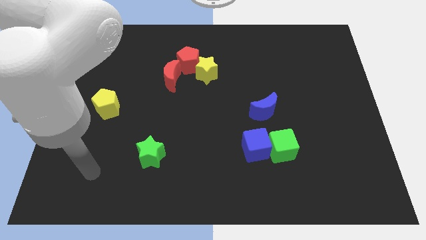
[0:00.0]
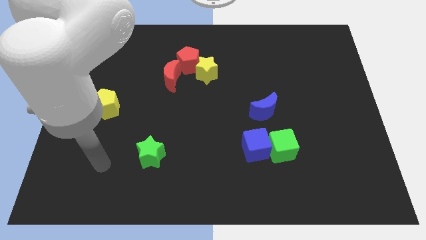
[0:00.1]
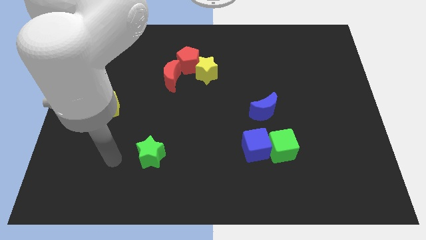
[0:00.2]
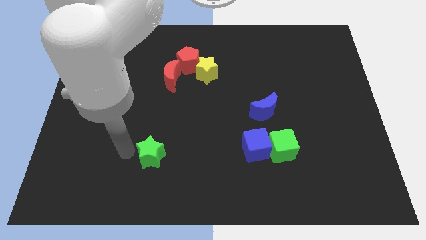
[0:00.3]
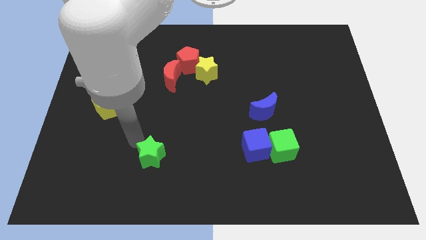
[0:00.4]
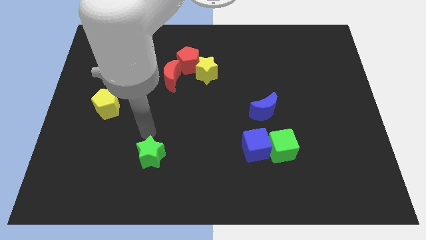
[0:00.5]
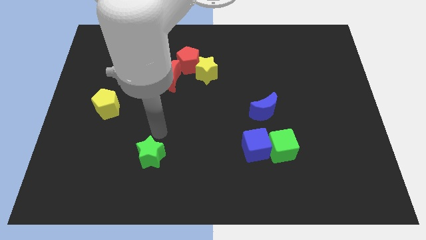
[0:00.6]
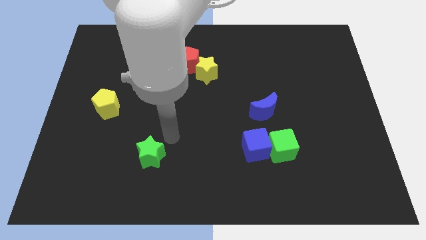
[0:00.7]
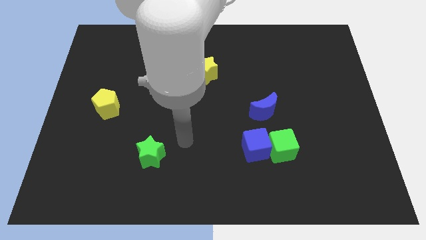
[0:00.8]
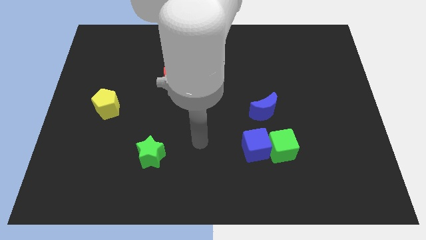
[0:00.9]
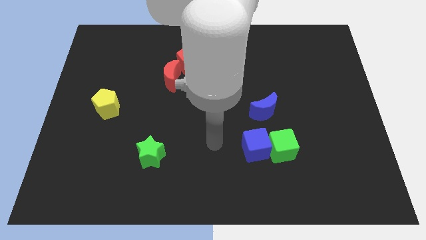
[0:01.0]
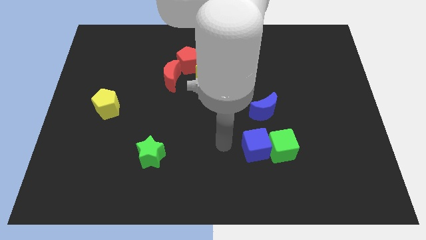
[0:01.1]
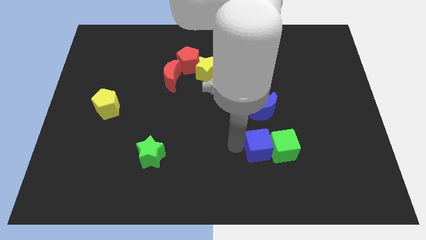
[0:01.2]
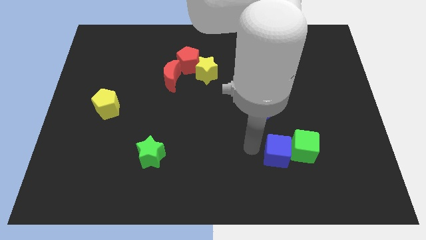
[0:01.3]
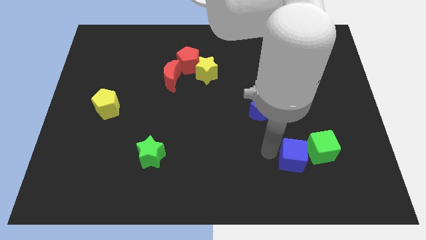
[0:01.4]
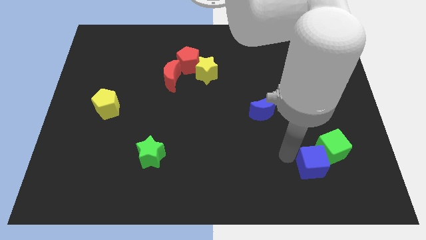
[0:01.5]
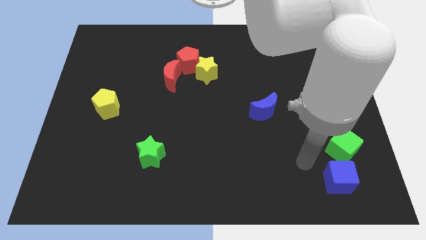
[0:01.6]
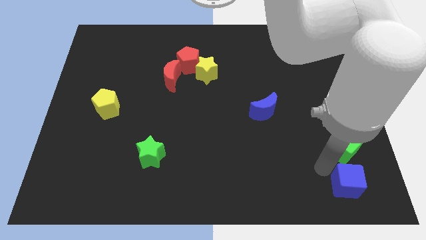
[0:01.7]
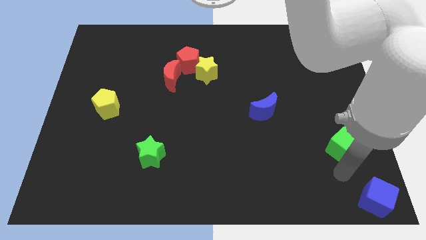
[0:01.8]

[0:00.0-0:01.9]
move the green cube away from the blue cube

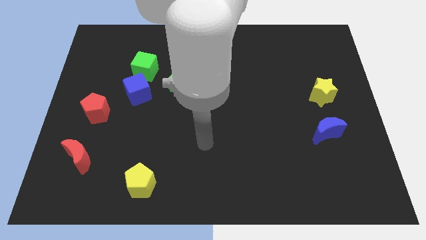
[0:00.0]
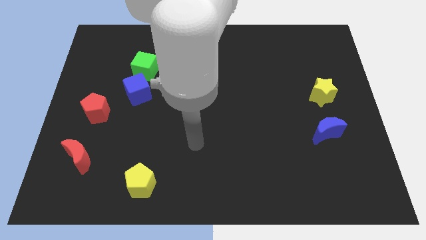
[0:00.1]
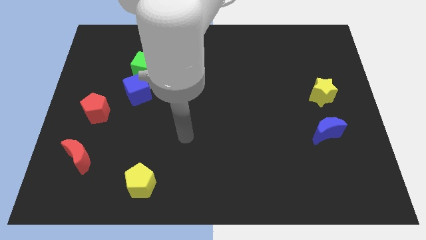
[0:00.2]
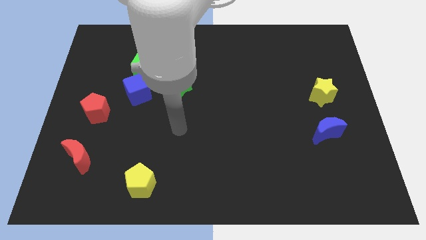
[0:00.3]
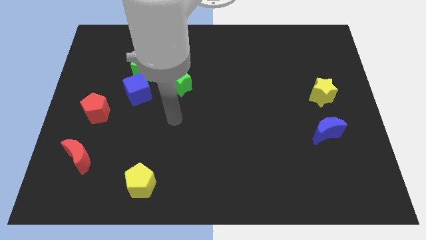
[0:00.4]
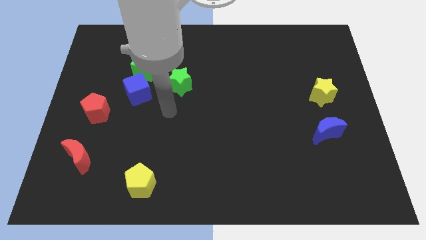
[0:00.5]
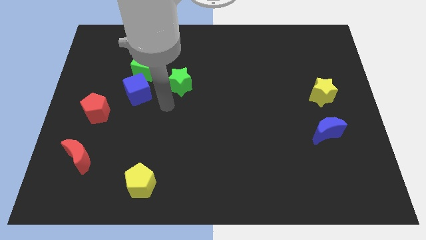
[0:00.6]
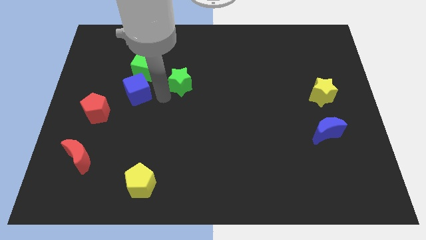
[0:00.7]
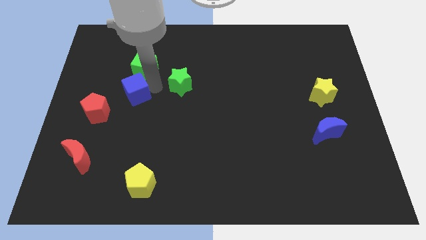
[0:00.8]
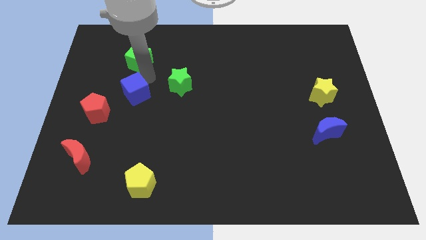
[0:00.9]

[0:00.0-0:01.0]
pull the blue cube apart from the green cube

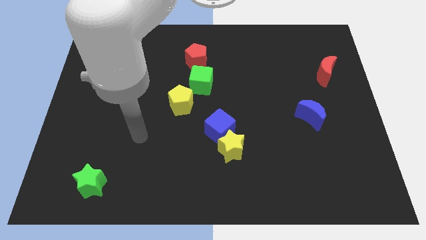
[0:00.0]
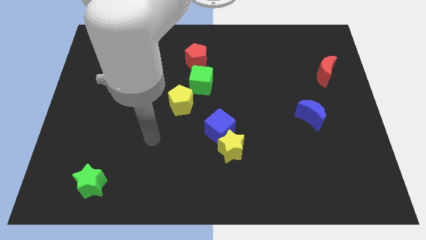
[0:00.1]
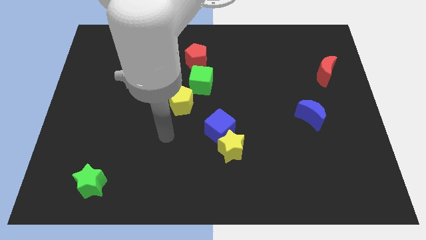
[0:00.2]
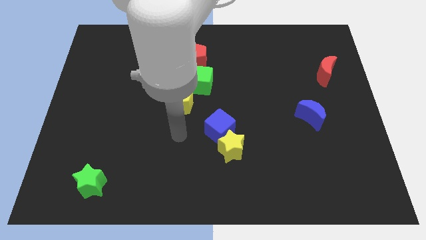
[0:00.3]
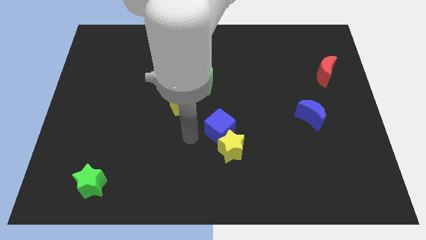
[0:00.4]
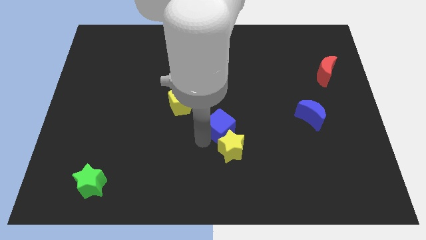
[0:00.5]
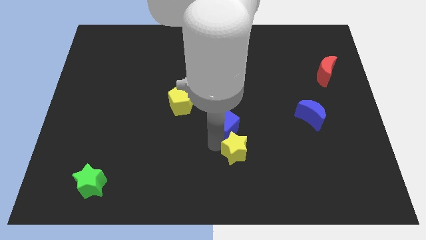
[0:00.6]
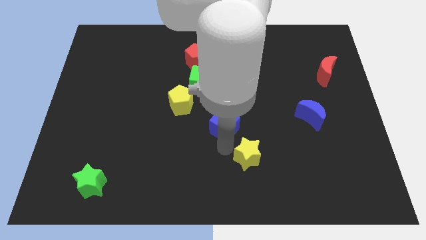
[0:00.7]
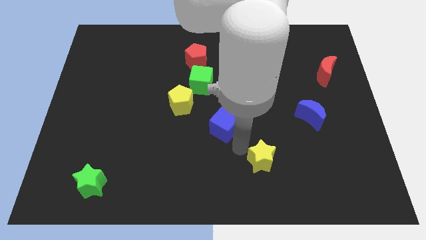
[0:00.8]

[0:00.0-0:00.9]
move the blue cube away from the yellow star

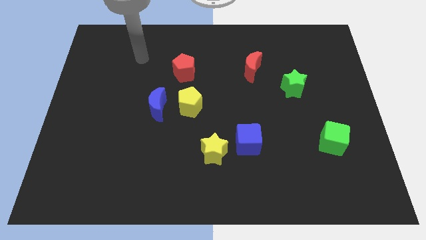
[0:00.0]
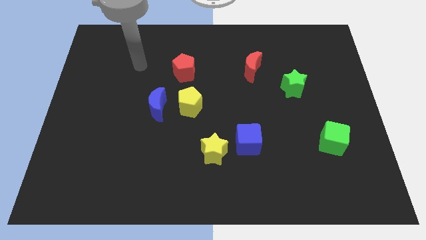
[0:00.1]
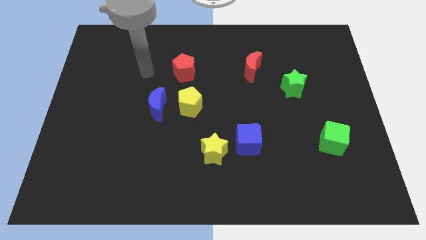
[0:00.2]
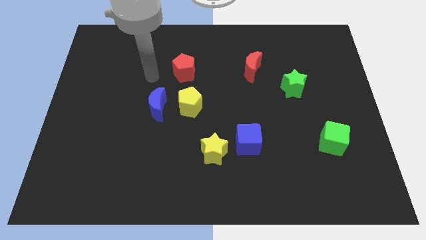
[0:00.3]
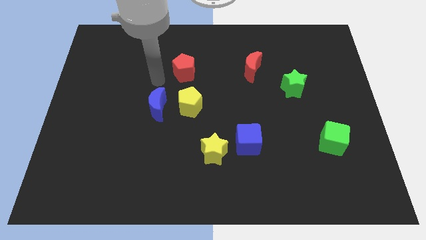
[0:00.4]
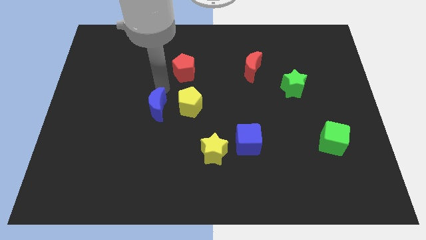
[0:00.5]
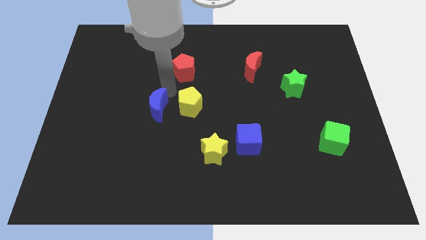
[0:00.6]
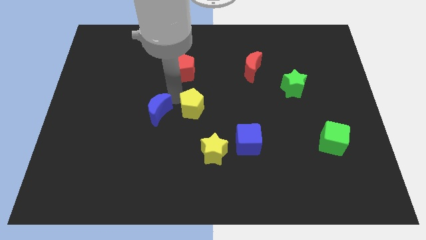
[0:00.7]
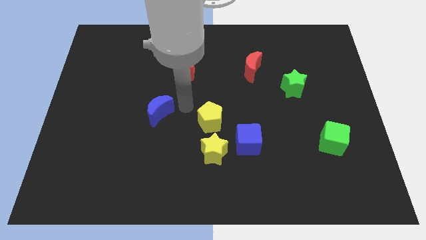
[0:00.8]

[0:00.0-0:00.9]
move the blue moon away from the yellow pentagon

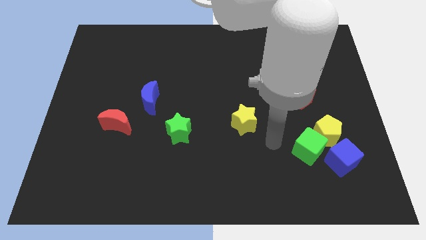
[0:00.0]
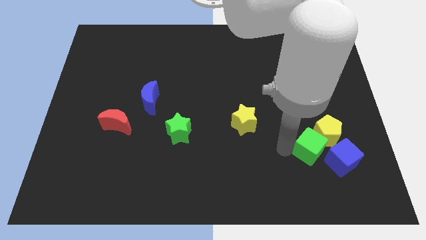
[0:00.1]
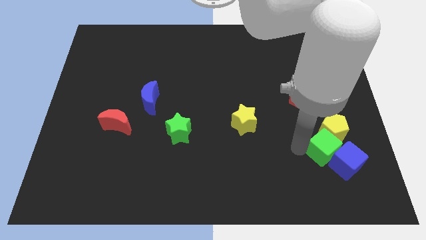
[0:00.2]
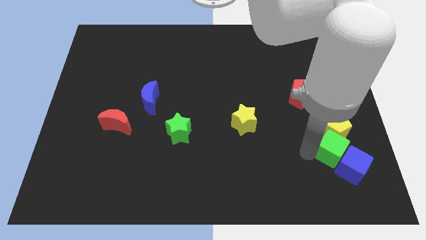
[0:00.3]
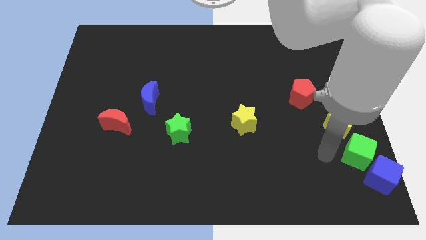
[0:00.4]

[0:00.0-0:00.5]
move the yellow pentagon away from the green cube and blue cube

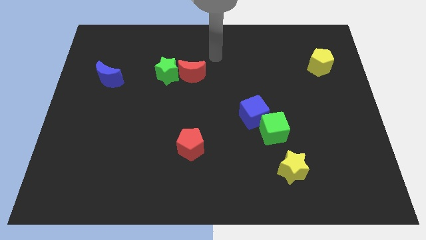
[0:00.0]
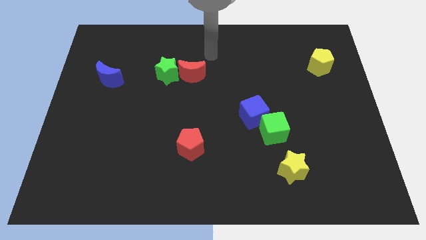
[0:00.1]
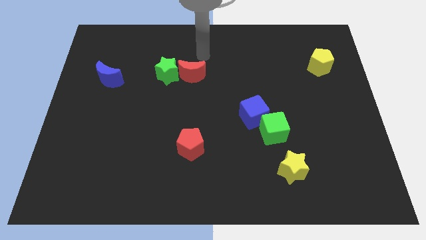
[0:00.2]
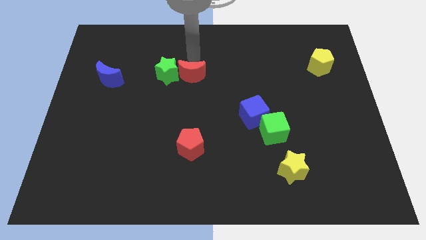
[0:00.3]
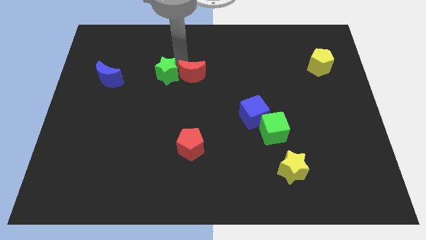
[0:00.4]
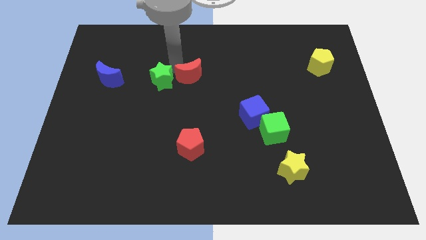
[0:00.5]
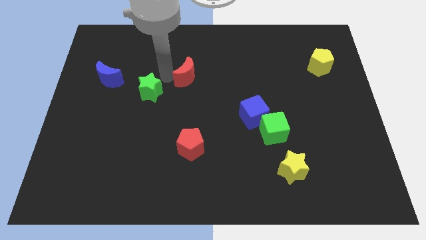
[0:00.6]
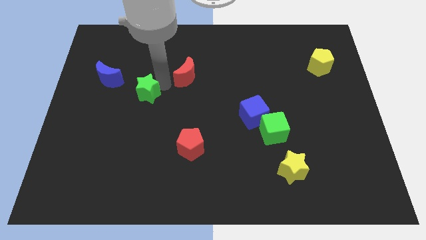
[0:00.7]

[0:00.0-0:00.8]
separate the red moon from the green star

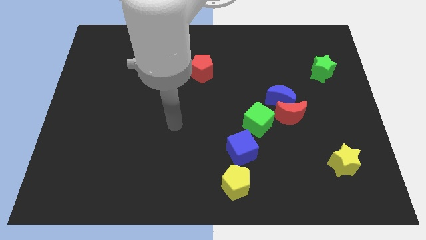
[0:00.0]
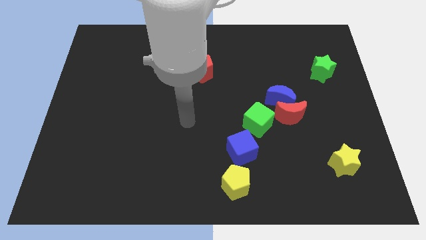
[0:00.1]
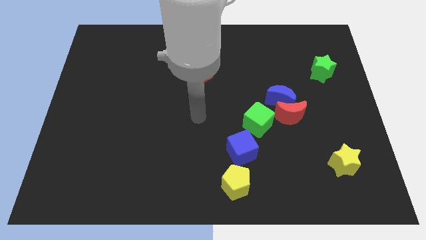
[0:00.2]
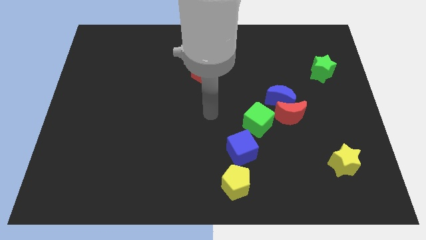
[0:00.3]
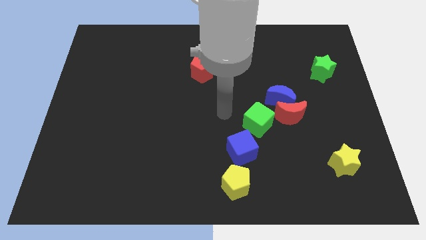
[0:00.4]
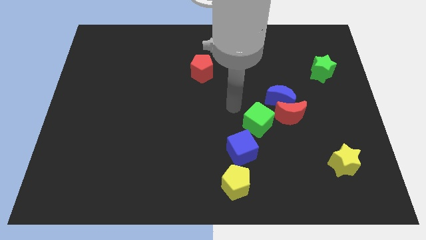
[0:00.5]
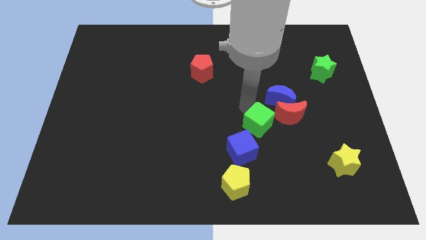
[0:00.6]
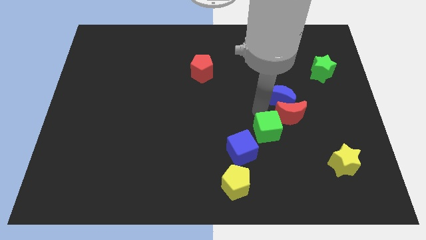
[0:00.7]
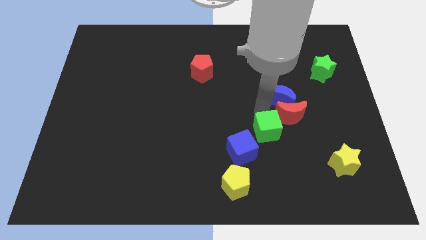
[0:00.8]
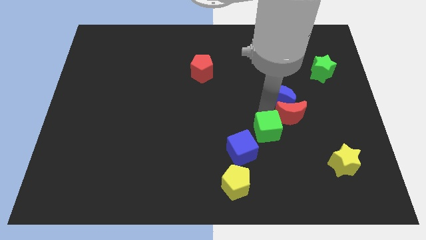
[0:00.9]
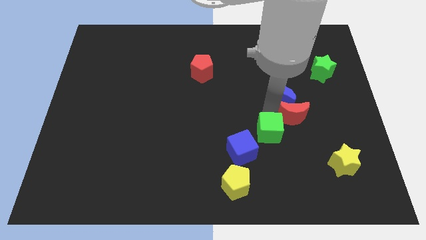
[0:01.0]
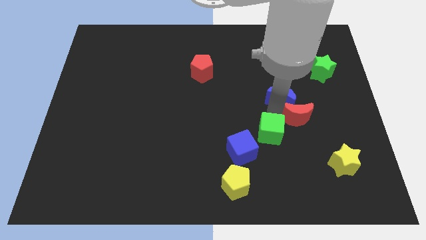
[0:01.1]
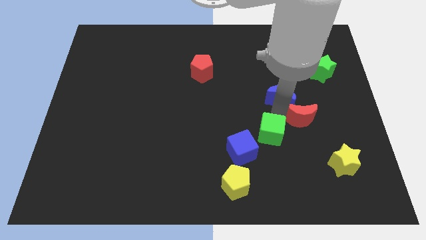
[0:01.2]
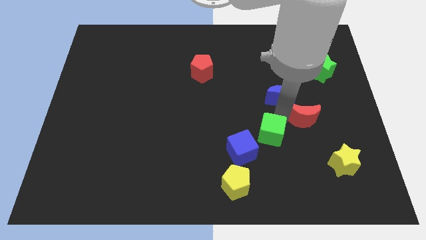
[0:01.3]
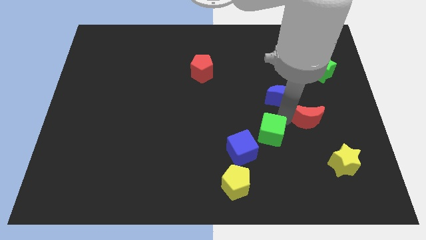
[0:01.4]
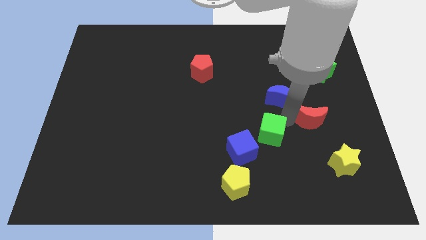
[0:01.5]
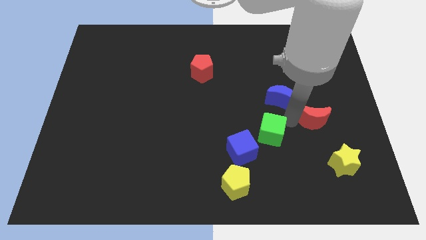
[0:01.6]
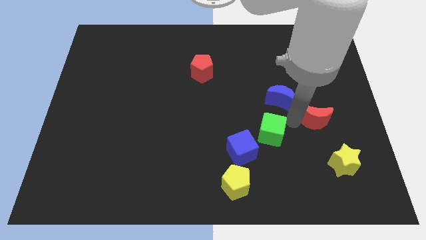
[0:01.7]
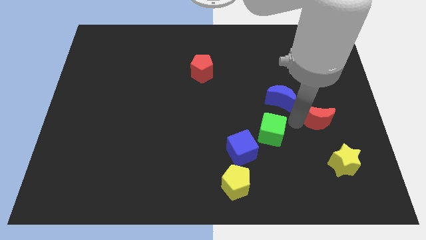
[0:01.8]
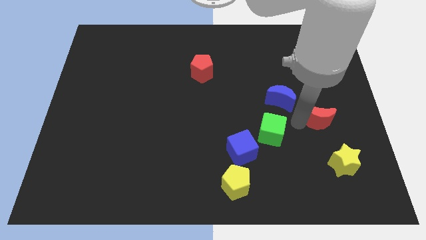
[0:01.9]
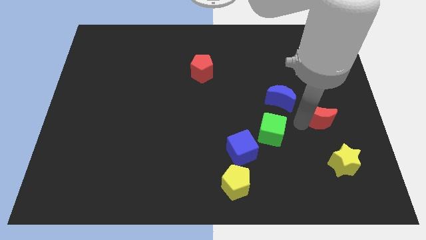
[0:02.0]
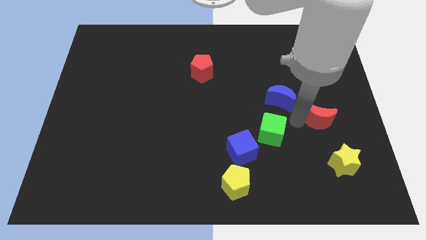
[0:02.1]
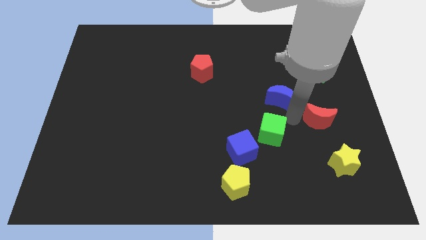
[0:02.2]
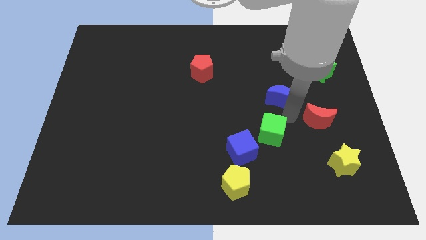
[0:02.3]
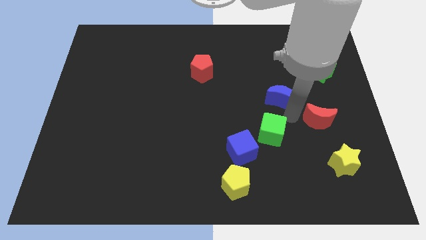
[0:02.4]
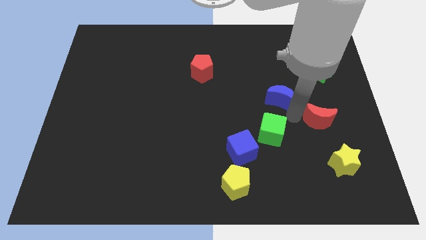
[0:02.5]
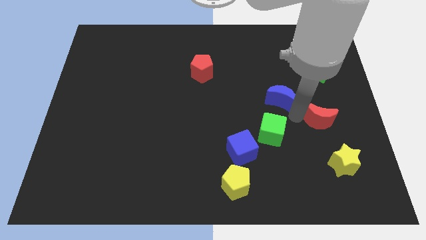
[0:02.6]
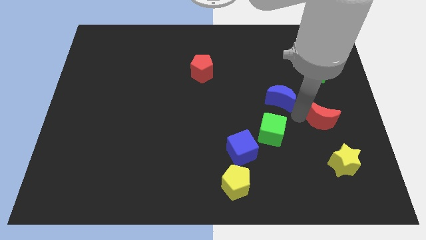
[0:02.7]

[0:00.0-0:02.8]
separate the red moon from the blue moon and green cube

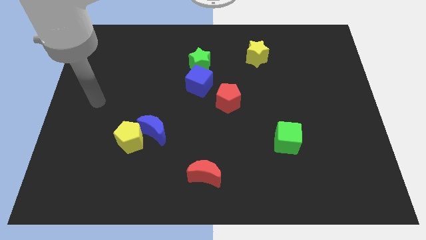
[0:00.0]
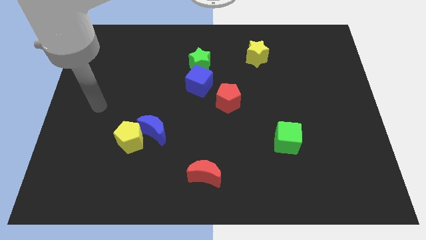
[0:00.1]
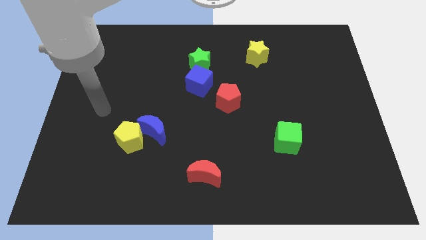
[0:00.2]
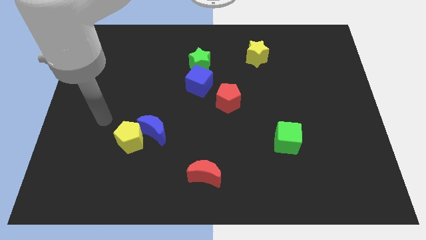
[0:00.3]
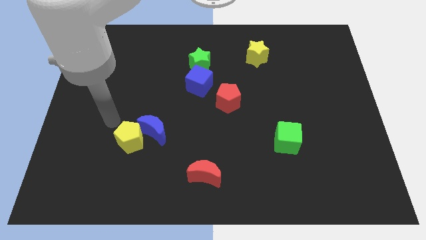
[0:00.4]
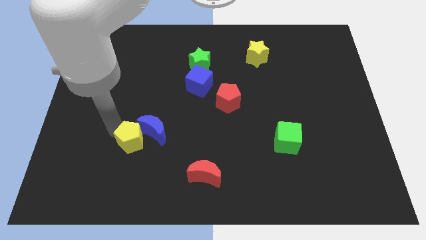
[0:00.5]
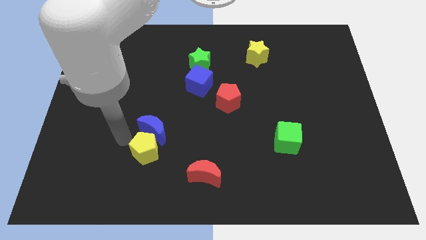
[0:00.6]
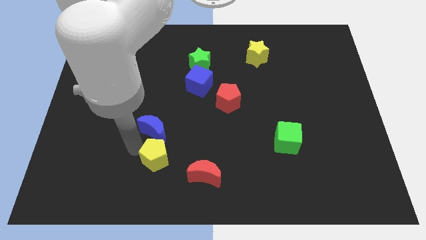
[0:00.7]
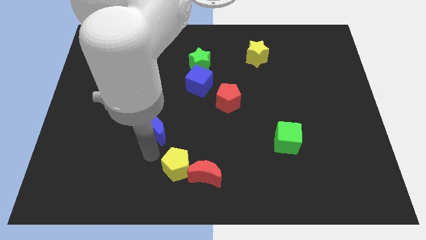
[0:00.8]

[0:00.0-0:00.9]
separate the blue moon from the yellow pentagon
